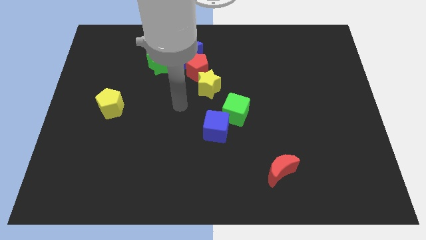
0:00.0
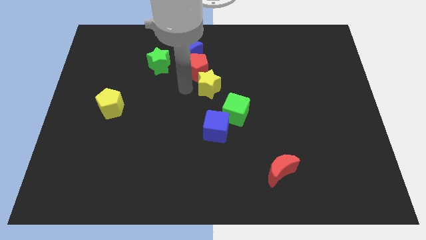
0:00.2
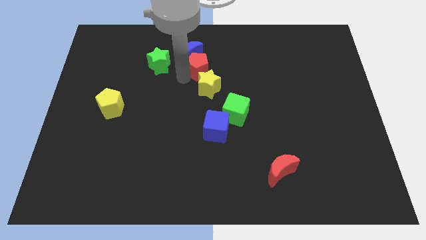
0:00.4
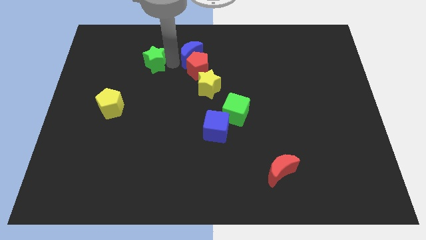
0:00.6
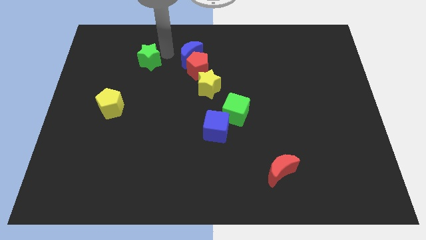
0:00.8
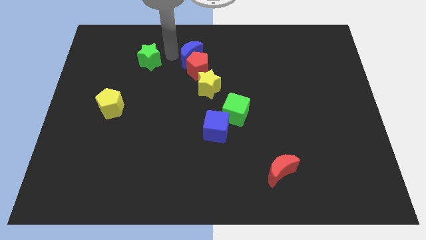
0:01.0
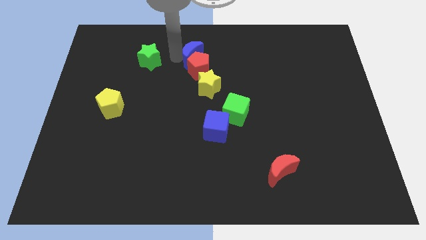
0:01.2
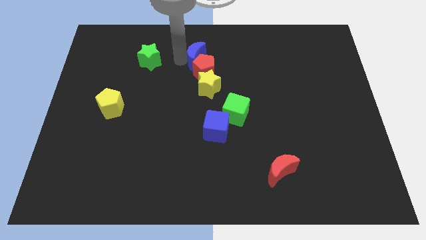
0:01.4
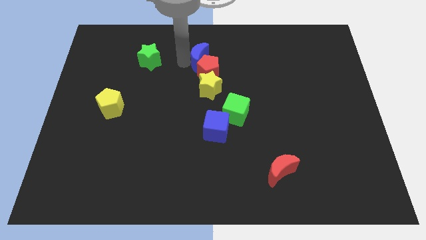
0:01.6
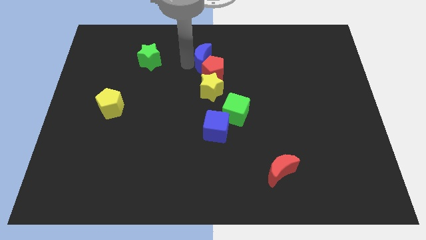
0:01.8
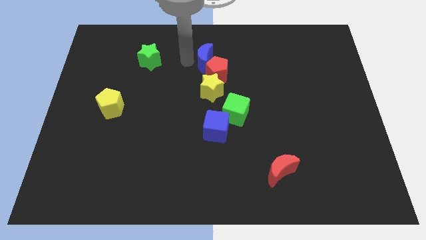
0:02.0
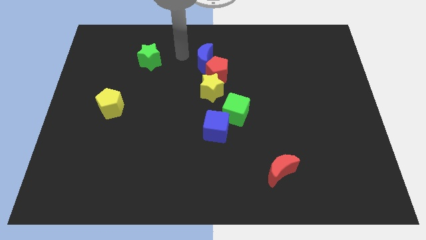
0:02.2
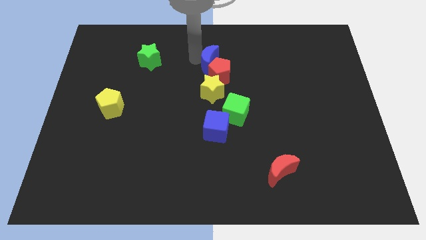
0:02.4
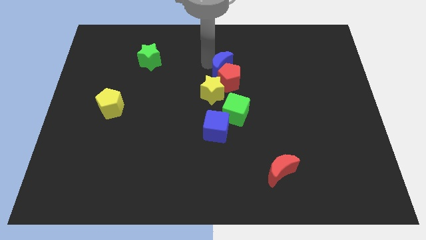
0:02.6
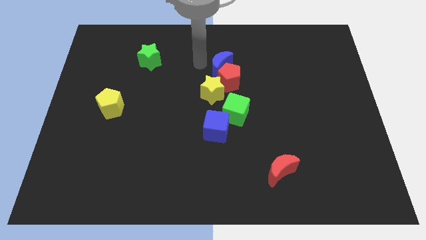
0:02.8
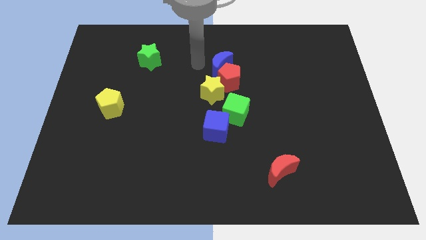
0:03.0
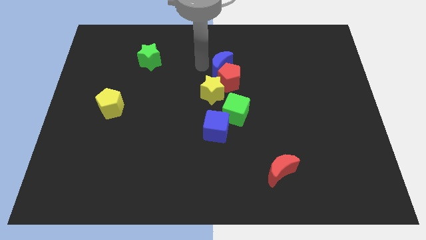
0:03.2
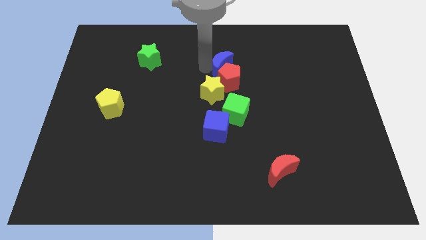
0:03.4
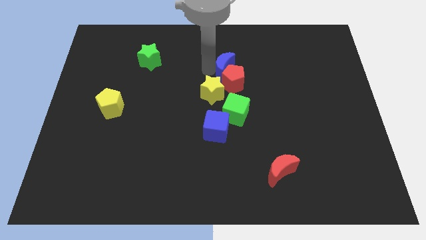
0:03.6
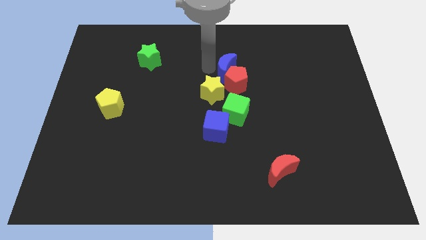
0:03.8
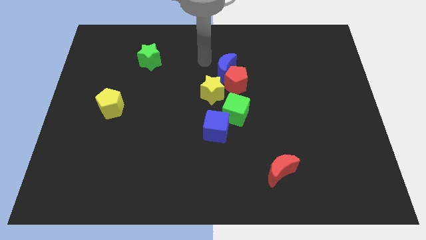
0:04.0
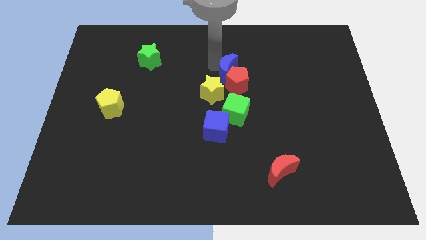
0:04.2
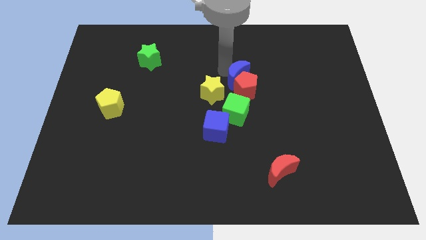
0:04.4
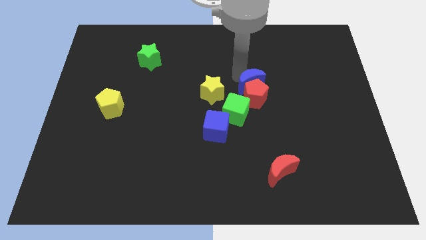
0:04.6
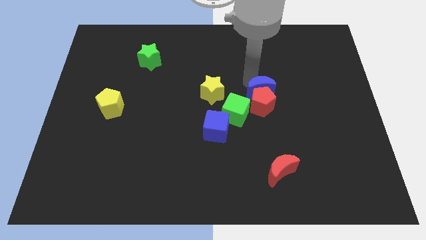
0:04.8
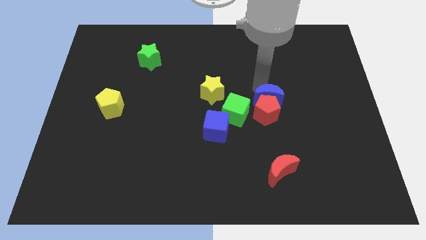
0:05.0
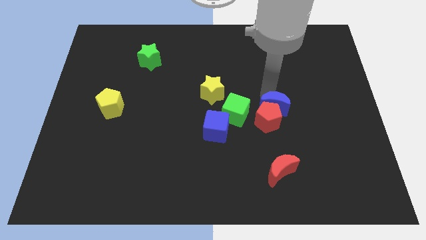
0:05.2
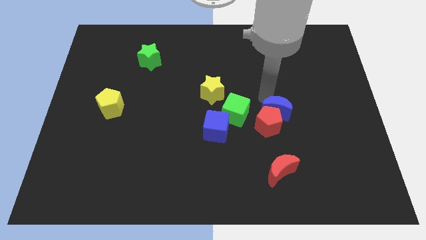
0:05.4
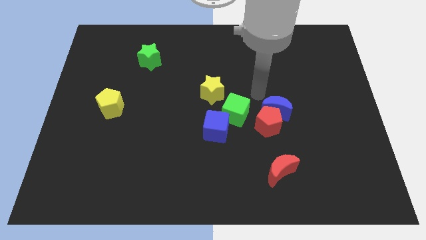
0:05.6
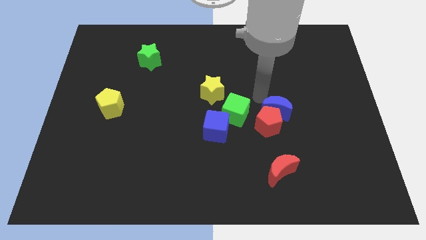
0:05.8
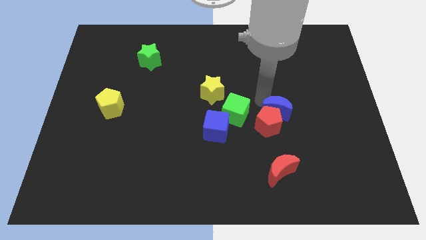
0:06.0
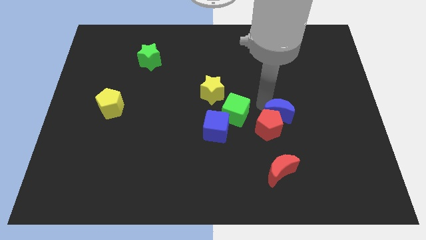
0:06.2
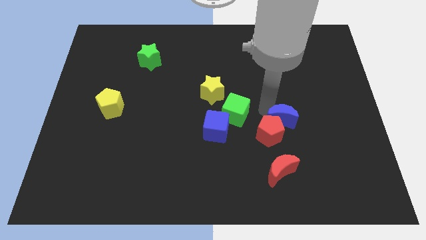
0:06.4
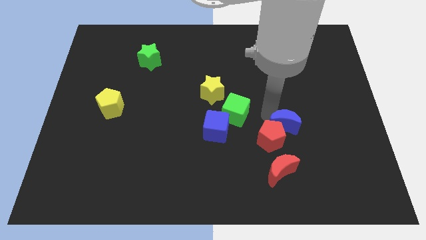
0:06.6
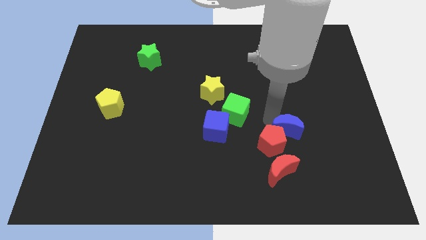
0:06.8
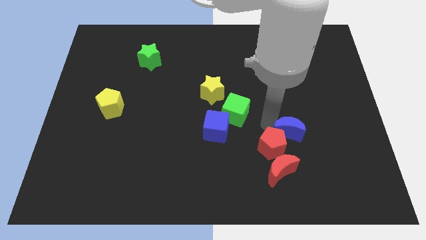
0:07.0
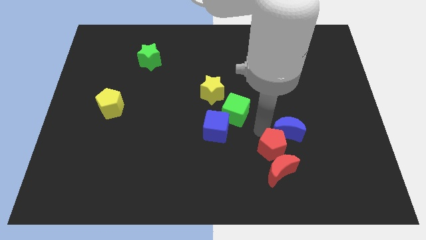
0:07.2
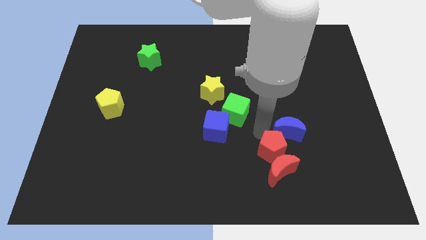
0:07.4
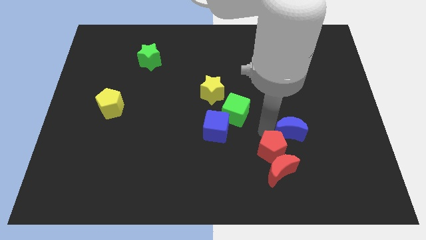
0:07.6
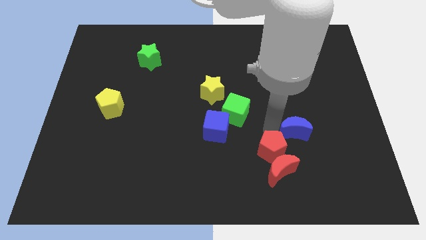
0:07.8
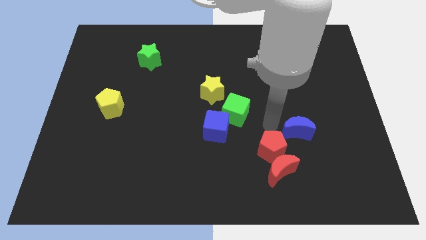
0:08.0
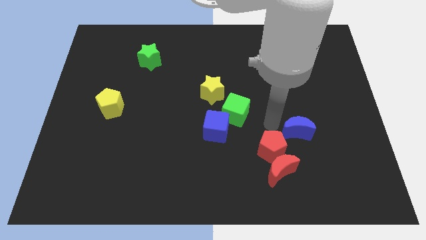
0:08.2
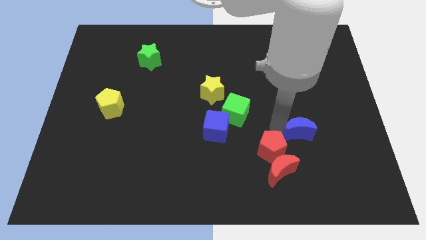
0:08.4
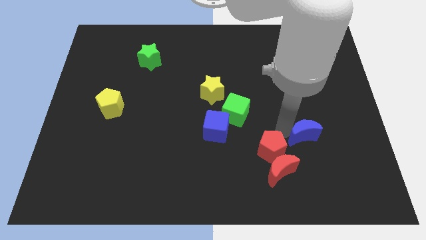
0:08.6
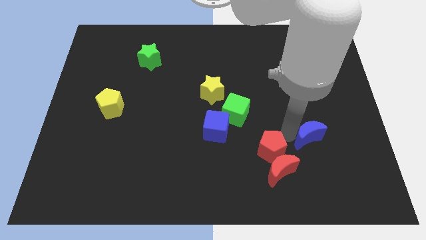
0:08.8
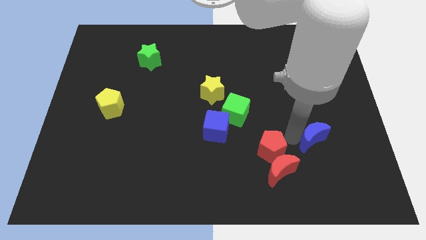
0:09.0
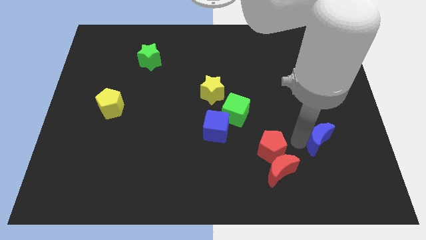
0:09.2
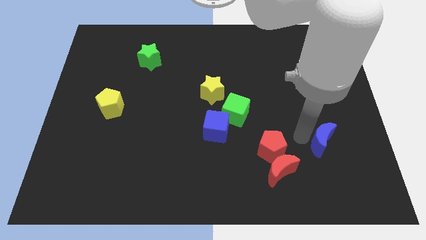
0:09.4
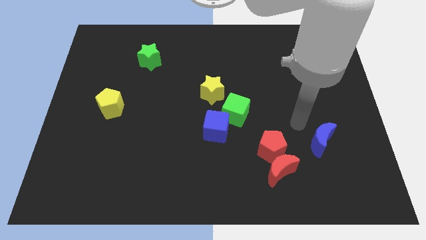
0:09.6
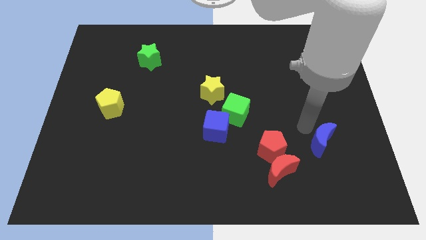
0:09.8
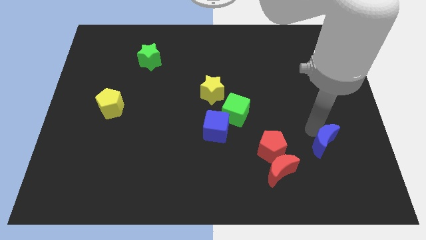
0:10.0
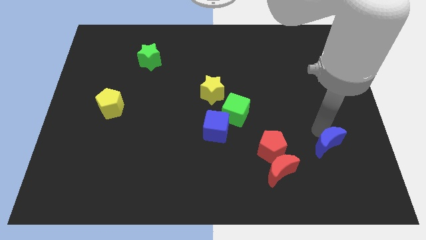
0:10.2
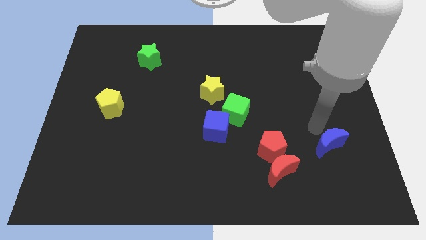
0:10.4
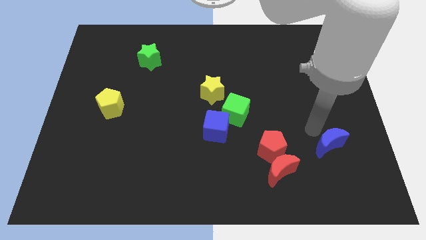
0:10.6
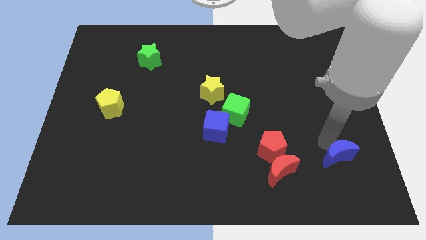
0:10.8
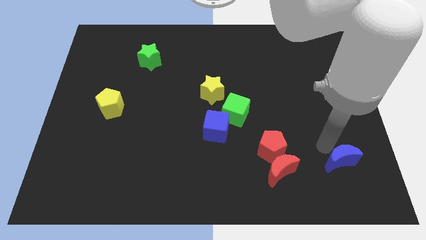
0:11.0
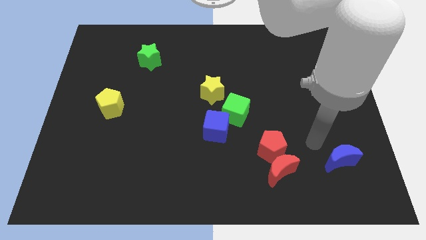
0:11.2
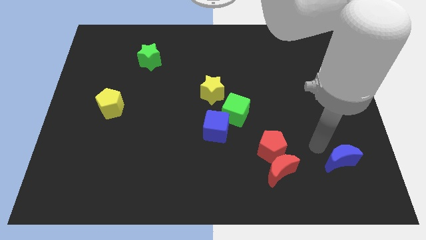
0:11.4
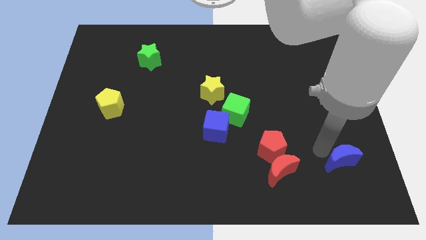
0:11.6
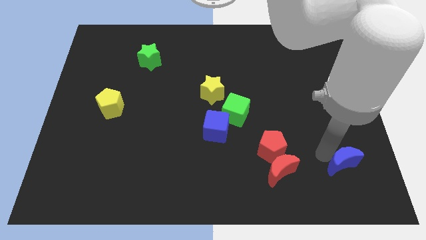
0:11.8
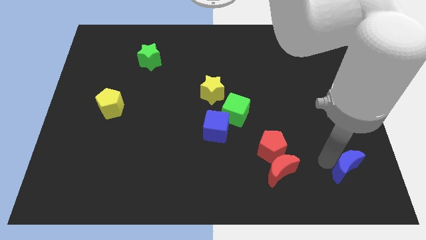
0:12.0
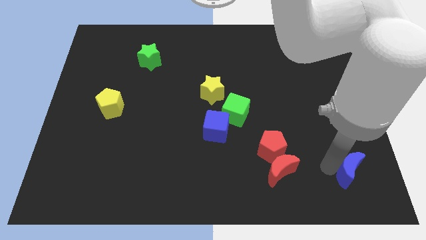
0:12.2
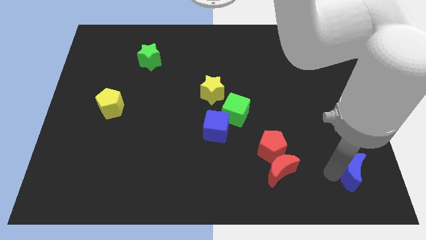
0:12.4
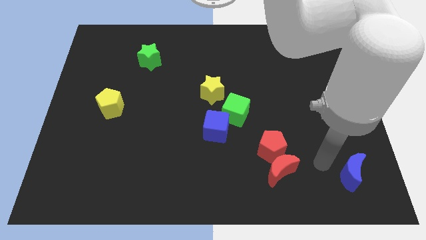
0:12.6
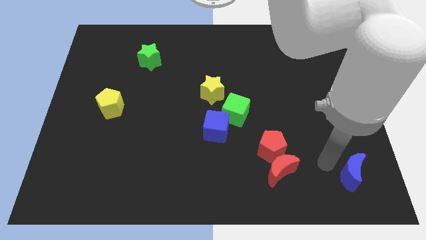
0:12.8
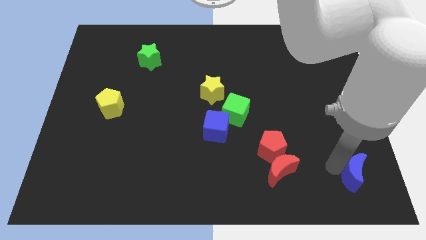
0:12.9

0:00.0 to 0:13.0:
move the blue moon to the bottom right corner

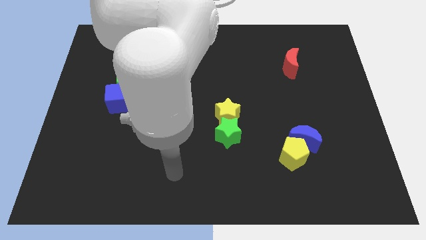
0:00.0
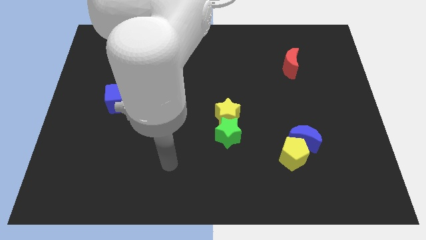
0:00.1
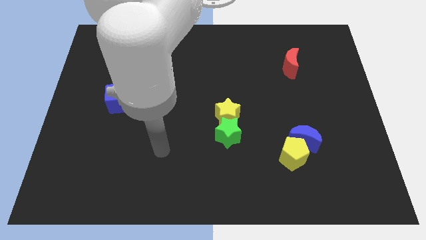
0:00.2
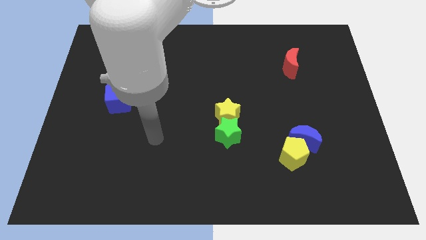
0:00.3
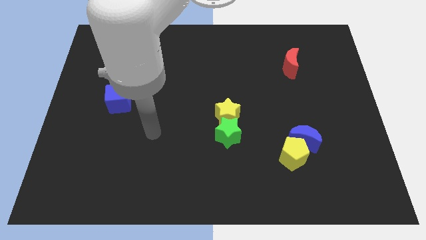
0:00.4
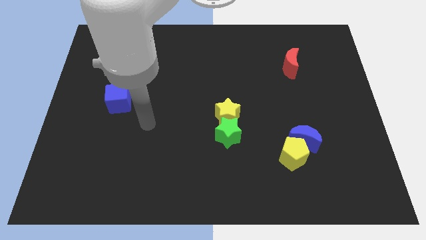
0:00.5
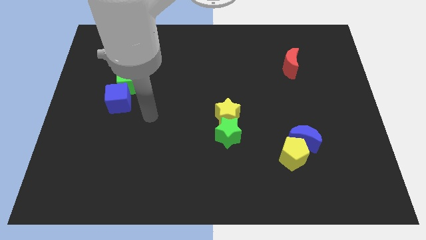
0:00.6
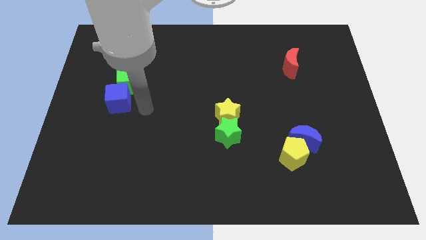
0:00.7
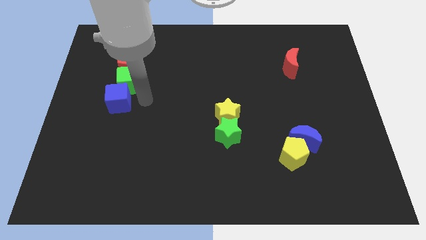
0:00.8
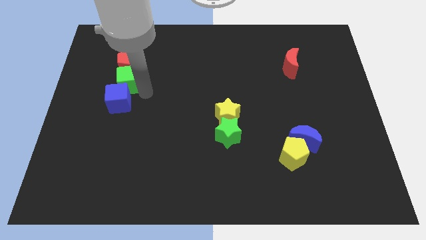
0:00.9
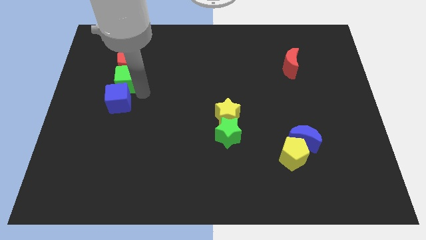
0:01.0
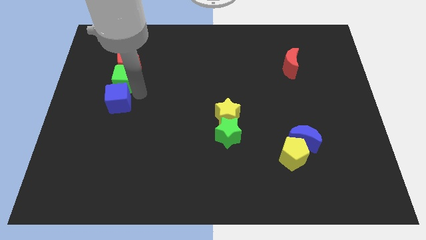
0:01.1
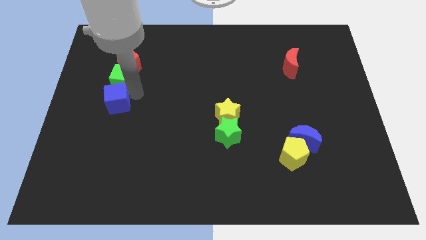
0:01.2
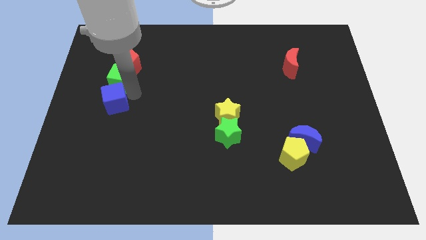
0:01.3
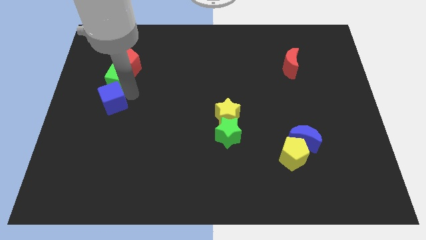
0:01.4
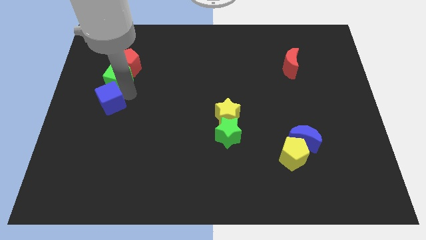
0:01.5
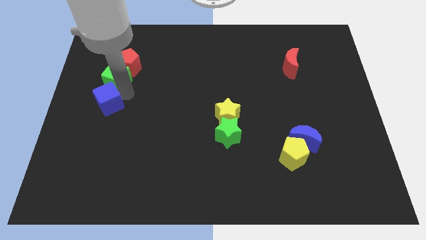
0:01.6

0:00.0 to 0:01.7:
move the blue cube to the left side
